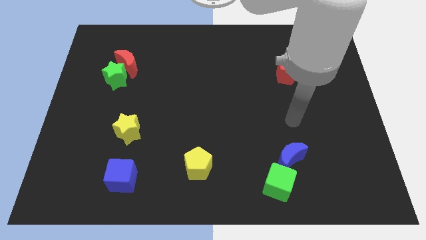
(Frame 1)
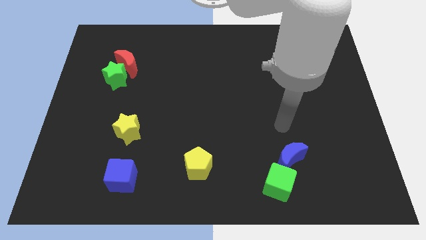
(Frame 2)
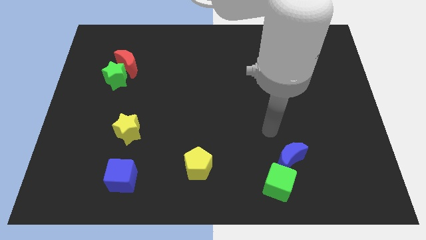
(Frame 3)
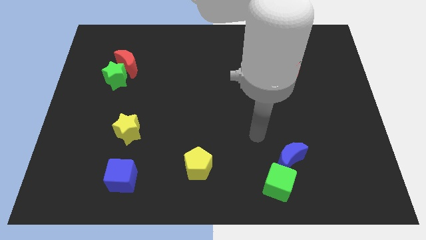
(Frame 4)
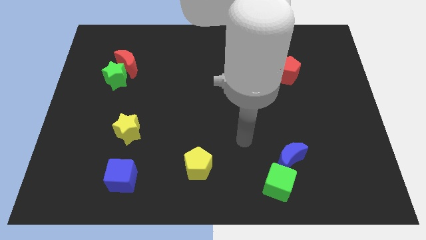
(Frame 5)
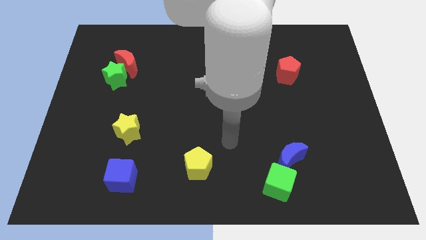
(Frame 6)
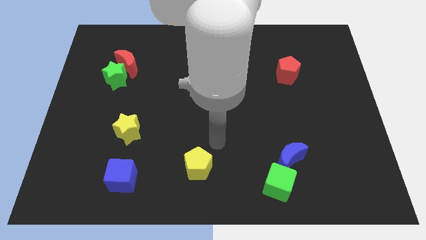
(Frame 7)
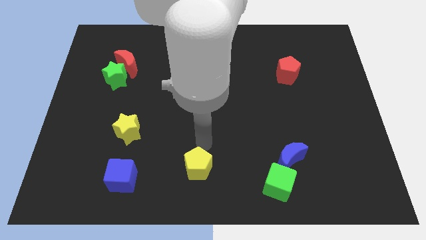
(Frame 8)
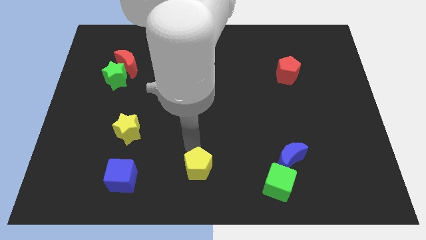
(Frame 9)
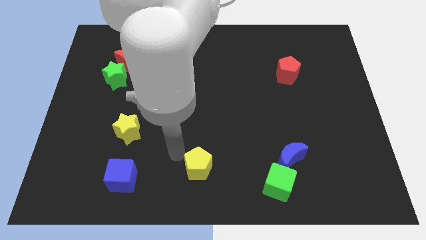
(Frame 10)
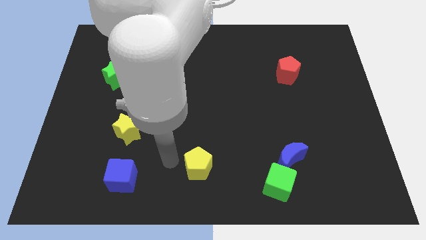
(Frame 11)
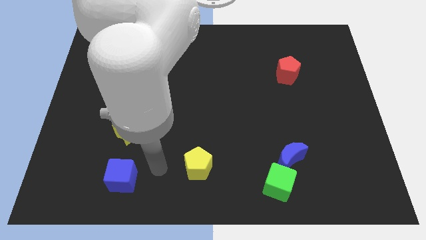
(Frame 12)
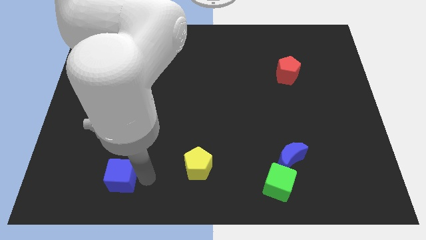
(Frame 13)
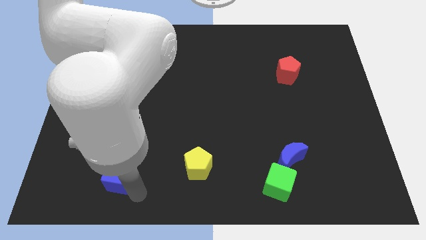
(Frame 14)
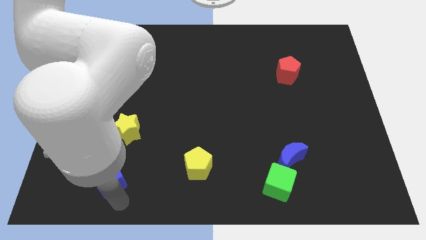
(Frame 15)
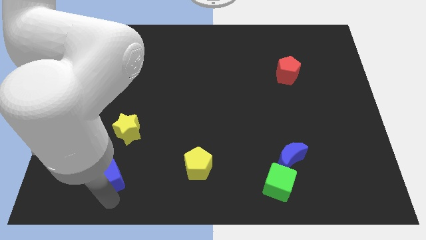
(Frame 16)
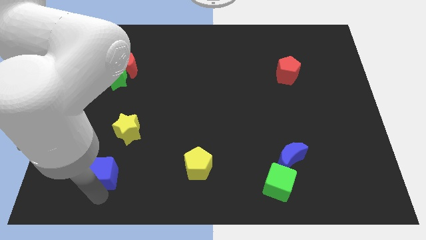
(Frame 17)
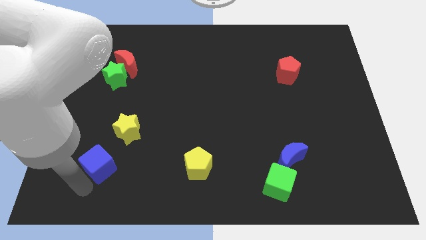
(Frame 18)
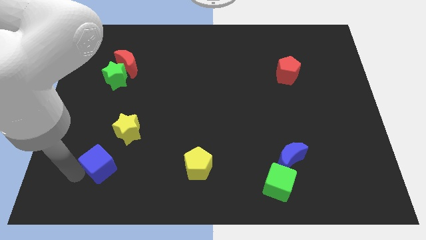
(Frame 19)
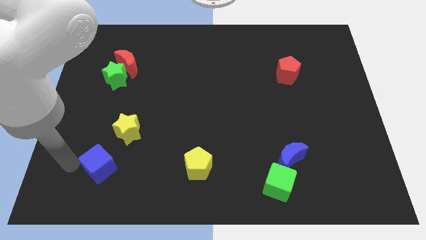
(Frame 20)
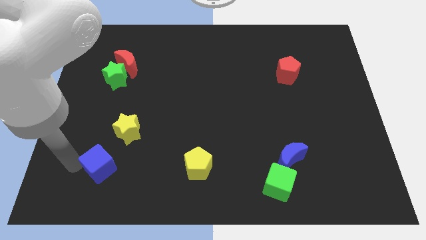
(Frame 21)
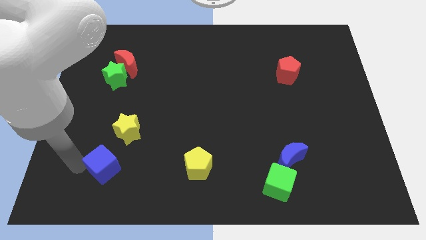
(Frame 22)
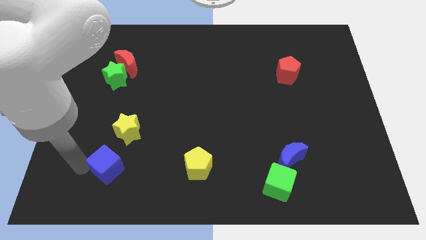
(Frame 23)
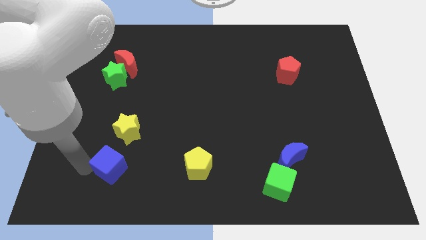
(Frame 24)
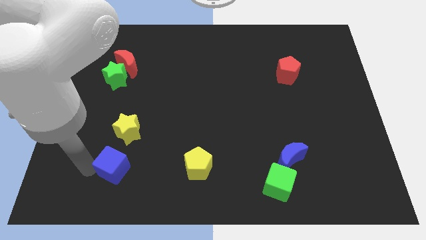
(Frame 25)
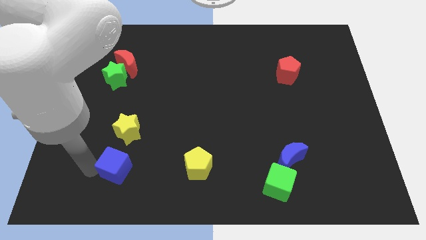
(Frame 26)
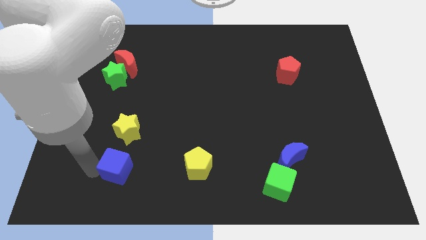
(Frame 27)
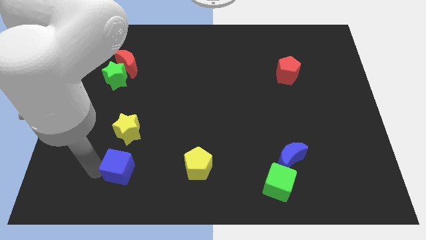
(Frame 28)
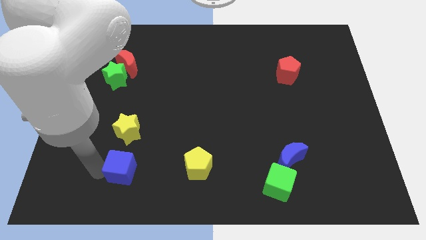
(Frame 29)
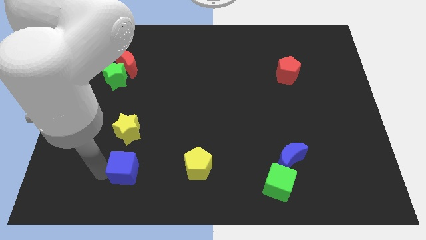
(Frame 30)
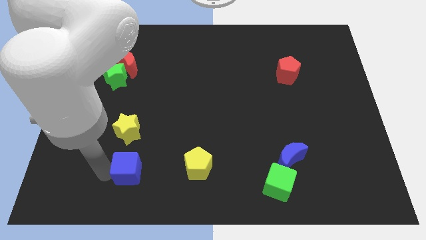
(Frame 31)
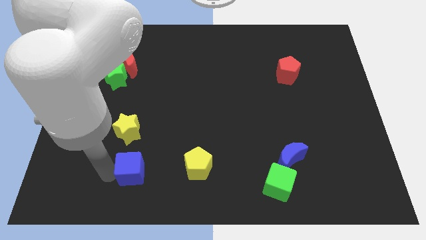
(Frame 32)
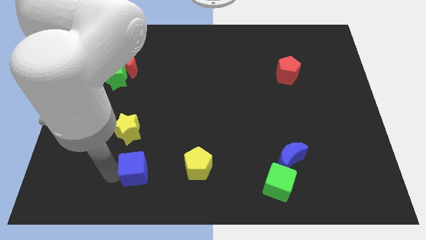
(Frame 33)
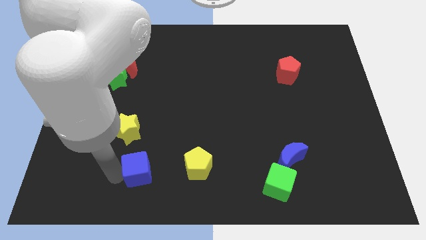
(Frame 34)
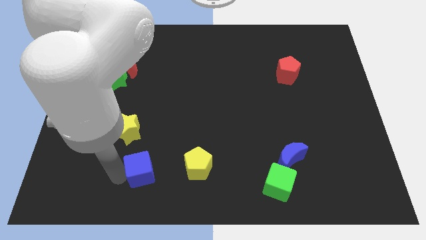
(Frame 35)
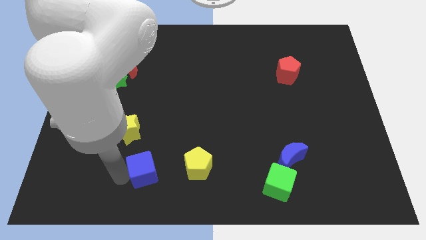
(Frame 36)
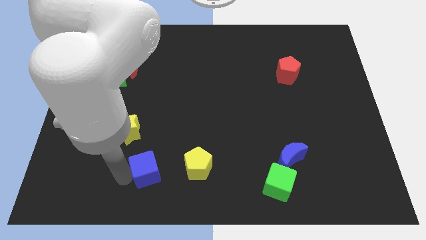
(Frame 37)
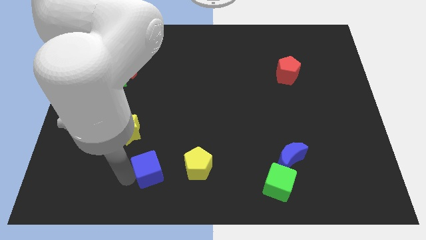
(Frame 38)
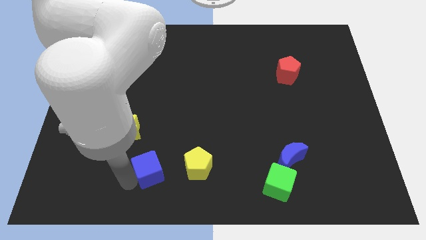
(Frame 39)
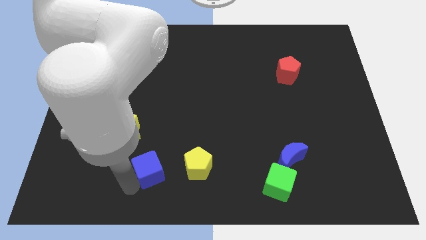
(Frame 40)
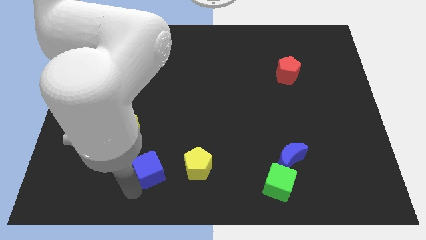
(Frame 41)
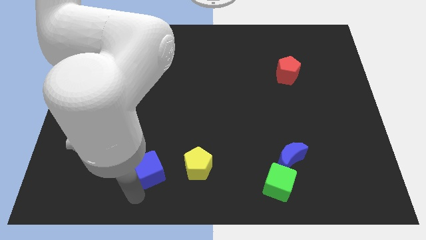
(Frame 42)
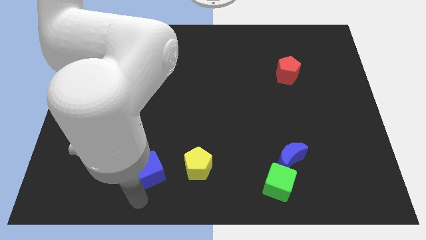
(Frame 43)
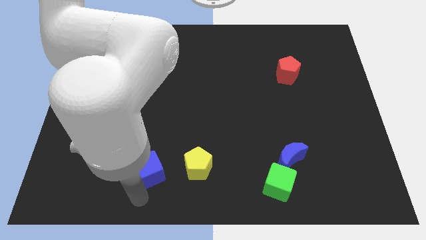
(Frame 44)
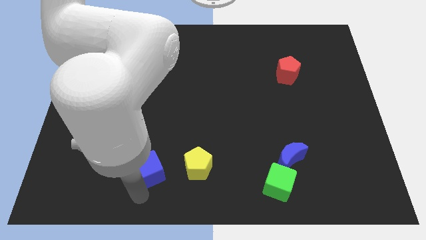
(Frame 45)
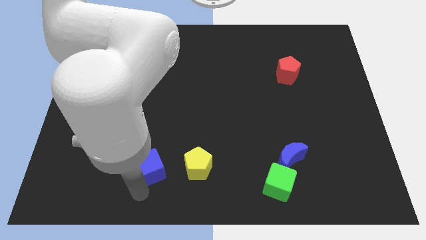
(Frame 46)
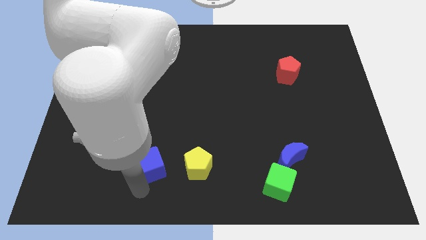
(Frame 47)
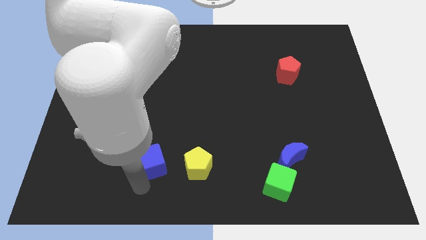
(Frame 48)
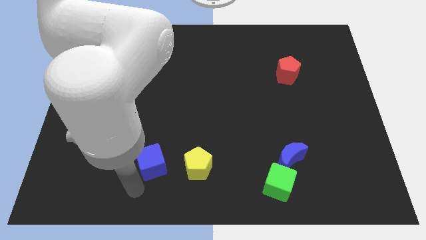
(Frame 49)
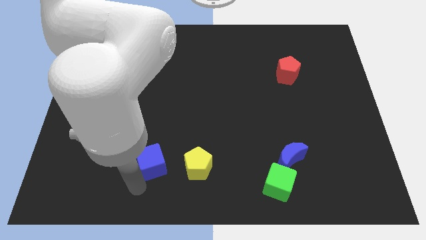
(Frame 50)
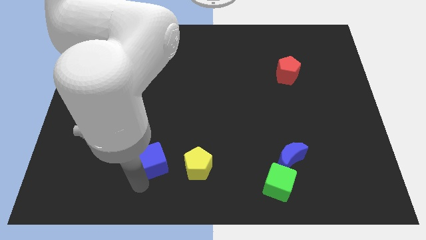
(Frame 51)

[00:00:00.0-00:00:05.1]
slightly move the blue cube diagonally upwards and to the right

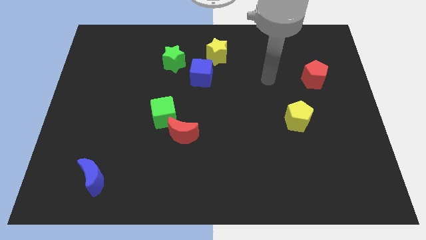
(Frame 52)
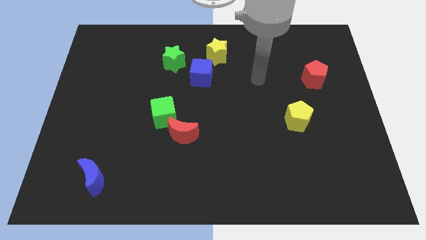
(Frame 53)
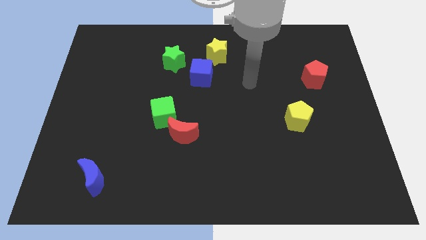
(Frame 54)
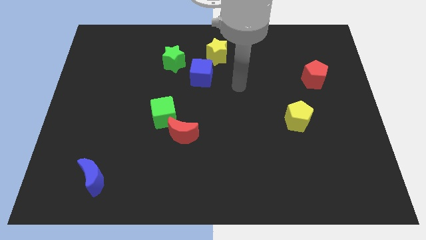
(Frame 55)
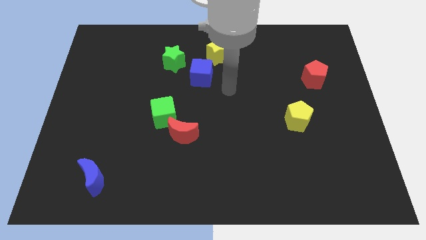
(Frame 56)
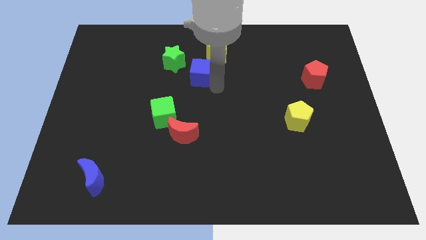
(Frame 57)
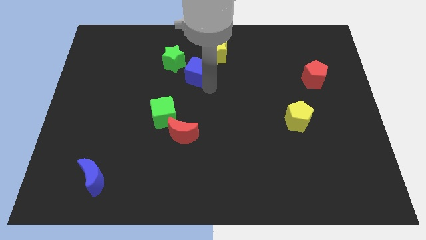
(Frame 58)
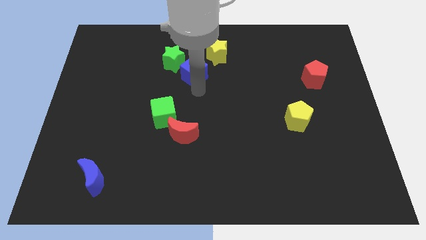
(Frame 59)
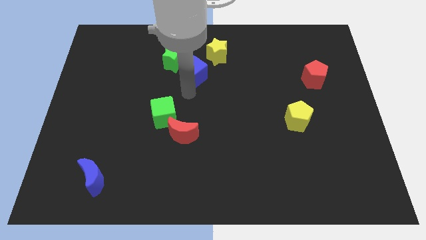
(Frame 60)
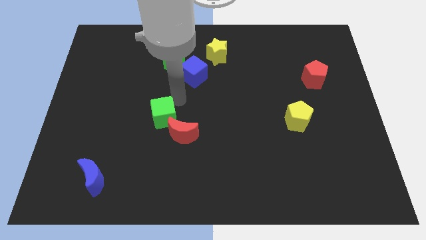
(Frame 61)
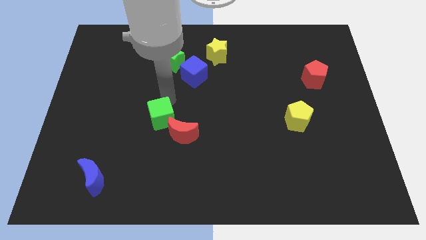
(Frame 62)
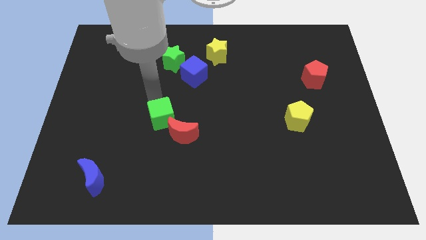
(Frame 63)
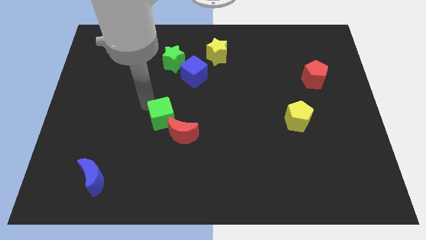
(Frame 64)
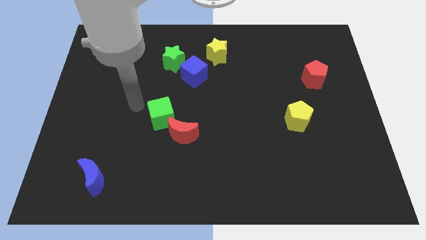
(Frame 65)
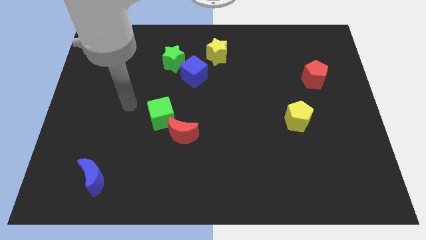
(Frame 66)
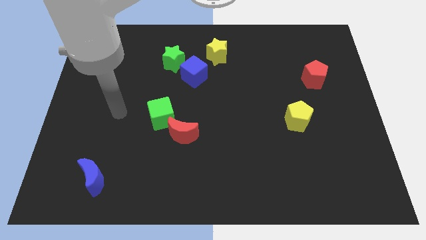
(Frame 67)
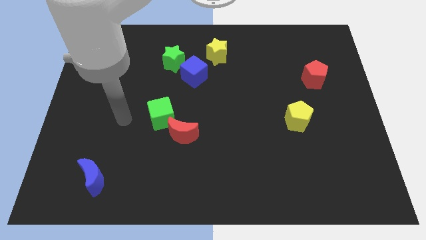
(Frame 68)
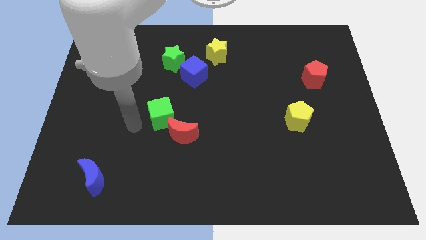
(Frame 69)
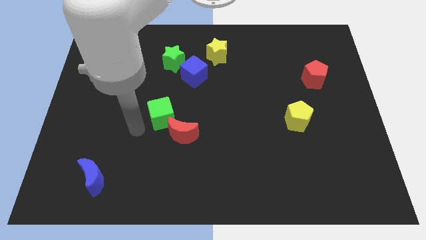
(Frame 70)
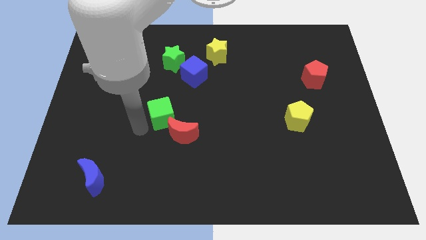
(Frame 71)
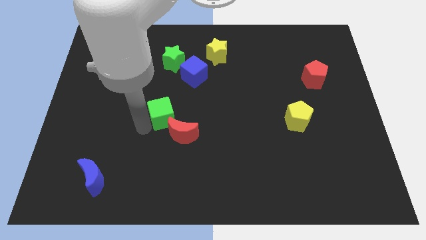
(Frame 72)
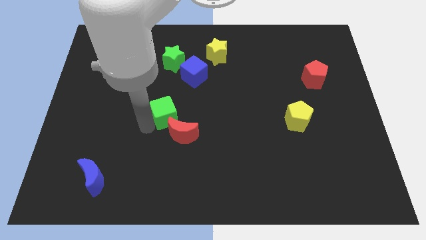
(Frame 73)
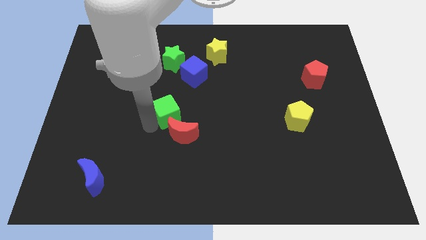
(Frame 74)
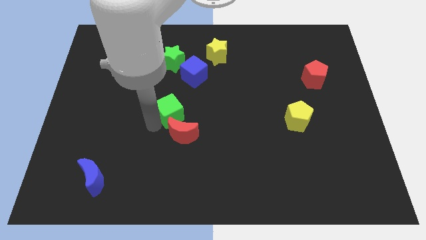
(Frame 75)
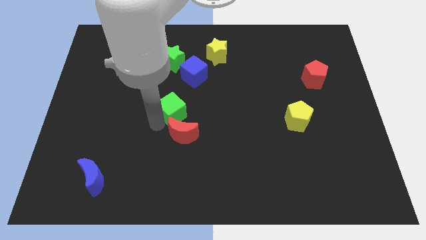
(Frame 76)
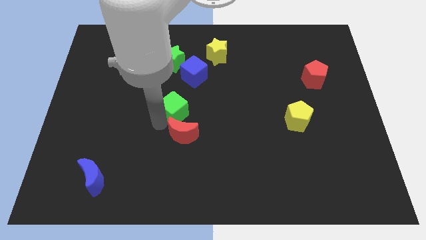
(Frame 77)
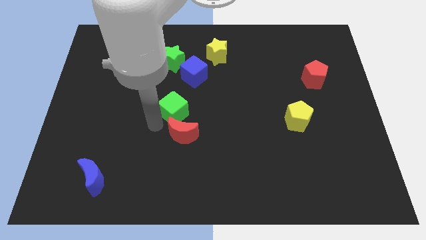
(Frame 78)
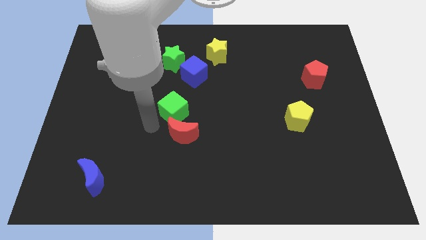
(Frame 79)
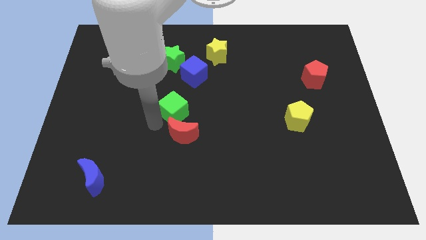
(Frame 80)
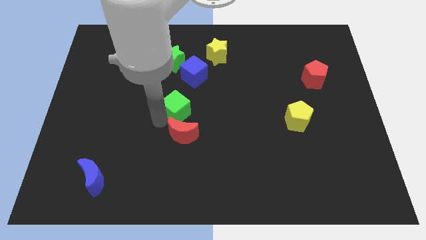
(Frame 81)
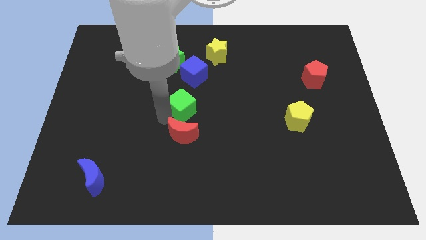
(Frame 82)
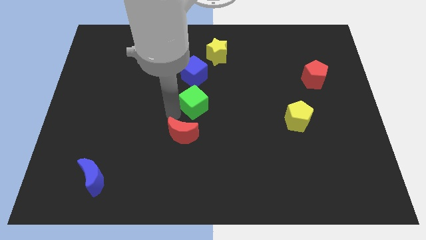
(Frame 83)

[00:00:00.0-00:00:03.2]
slide the green cube a little upwards and then right

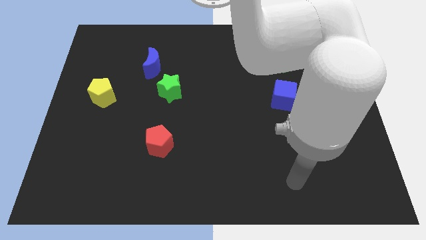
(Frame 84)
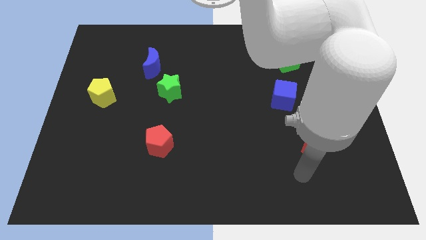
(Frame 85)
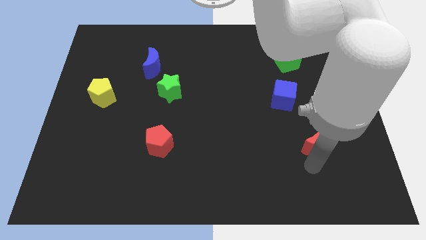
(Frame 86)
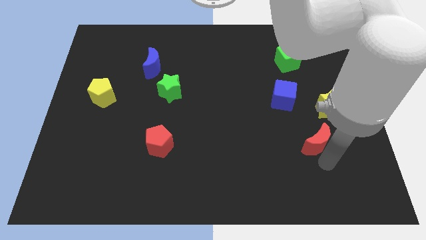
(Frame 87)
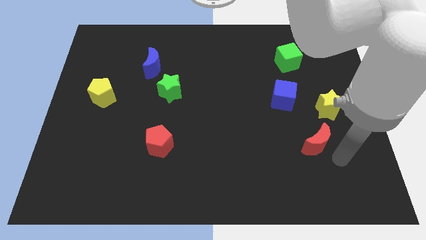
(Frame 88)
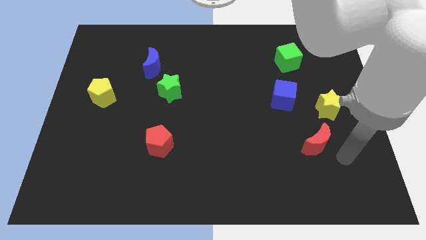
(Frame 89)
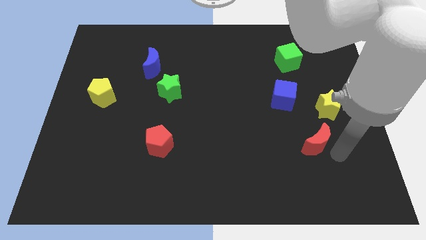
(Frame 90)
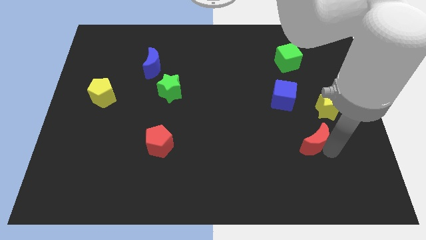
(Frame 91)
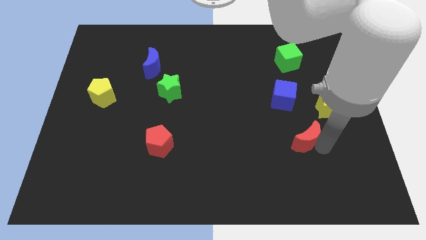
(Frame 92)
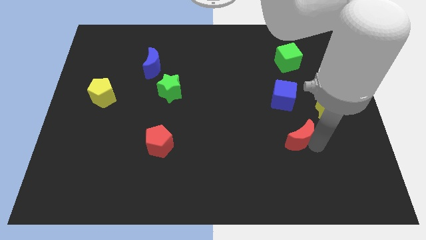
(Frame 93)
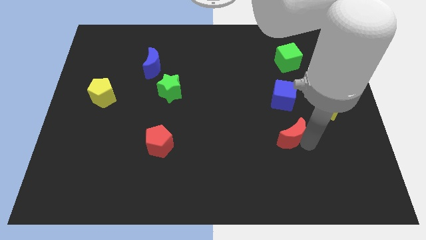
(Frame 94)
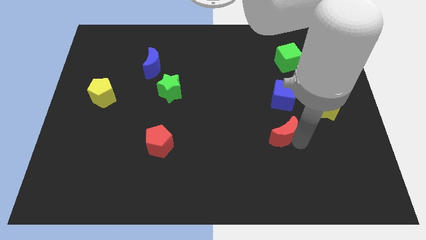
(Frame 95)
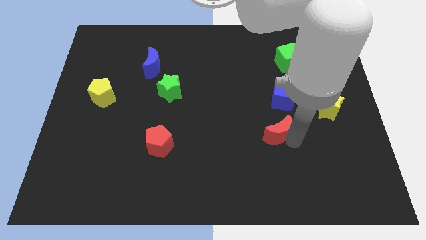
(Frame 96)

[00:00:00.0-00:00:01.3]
move the red moon upwards and then to the left a bit
